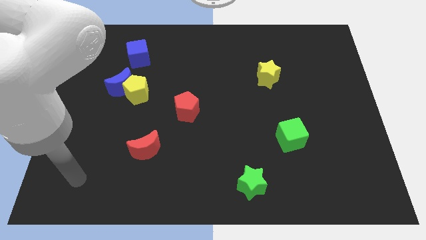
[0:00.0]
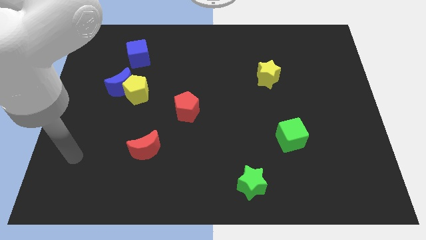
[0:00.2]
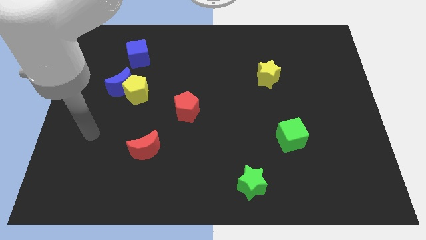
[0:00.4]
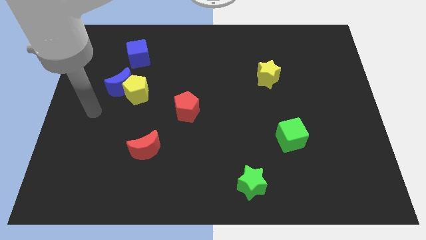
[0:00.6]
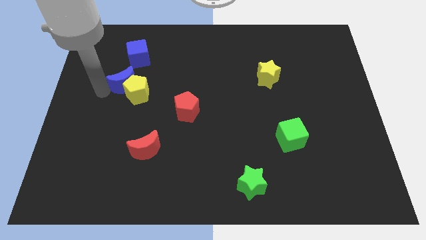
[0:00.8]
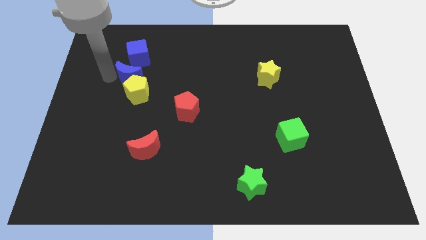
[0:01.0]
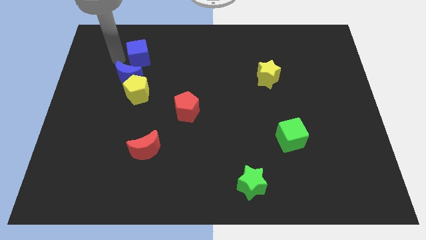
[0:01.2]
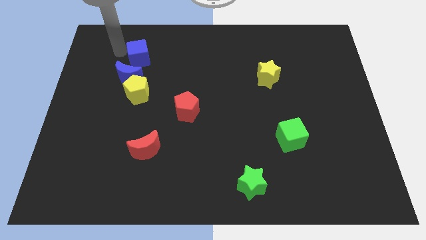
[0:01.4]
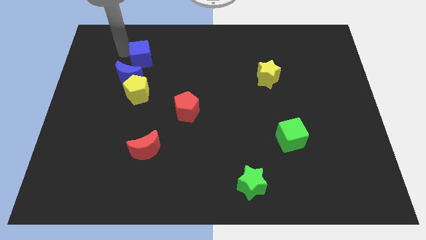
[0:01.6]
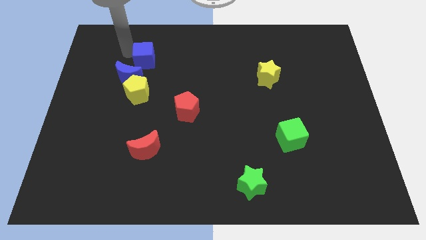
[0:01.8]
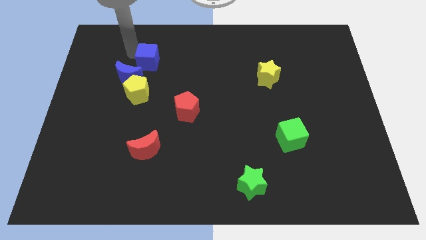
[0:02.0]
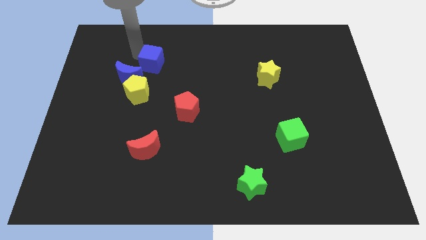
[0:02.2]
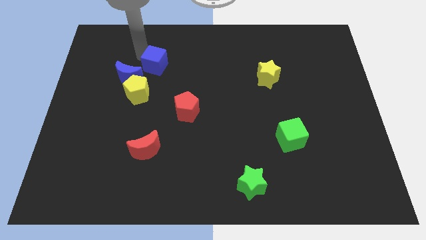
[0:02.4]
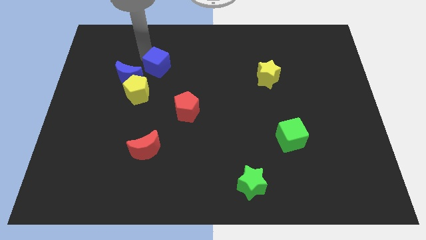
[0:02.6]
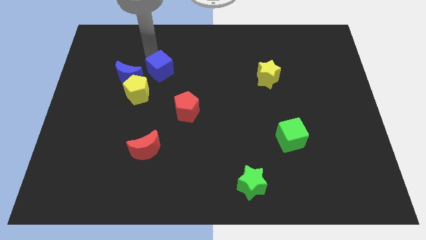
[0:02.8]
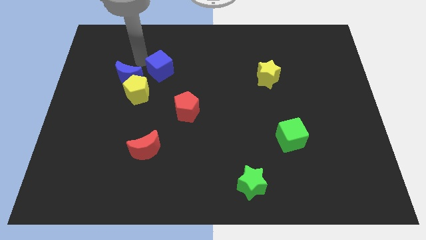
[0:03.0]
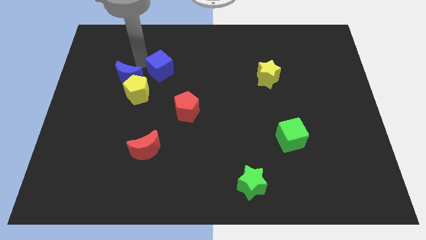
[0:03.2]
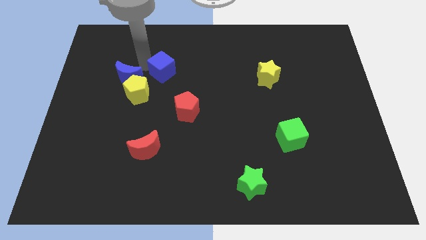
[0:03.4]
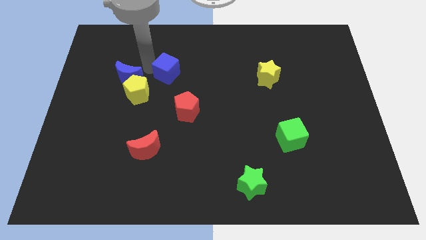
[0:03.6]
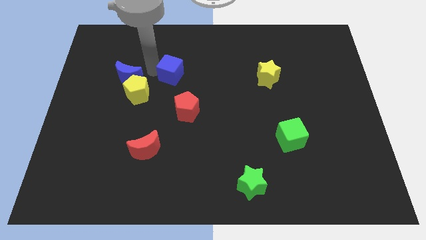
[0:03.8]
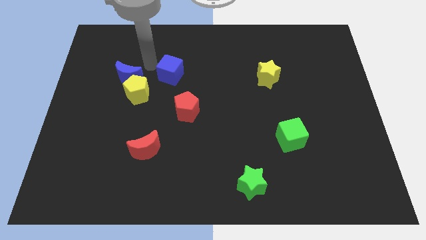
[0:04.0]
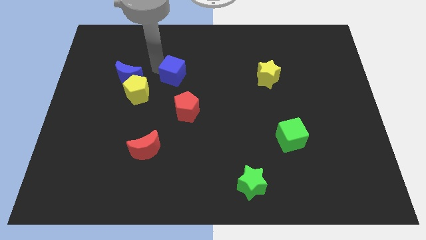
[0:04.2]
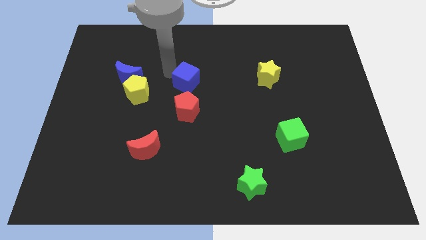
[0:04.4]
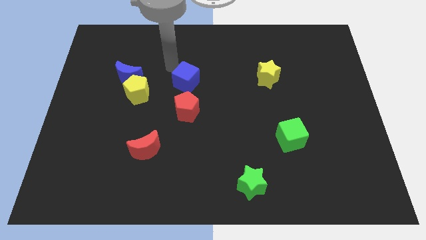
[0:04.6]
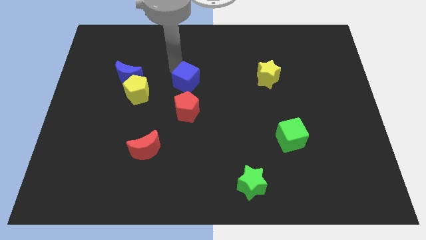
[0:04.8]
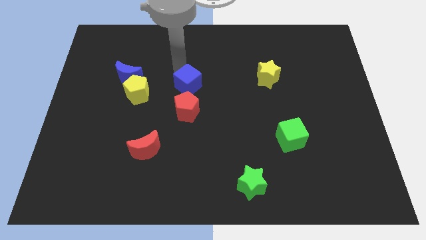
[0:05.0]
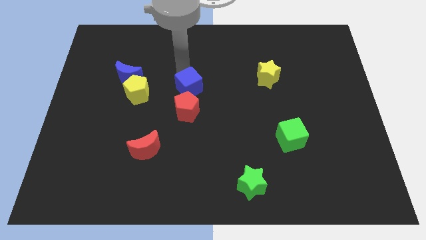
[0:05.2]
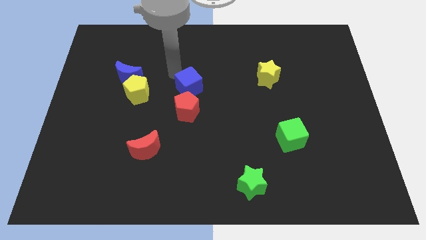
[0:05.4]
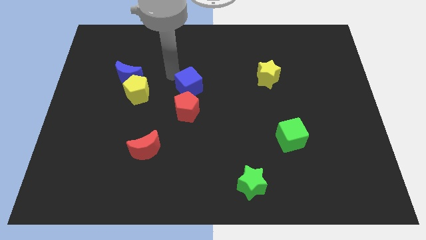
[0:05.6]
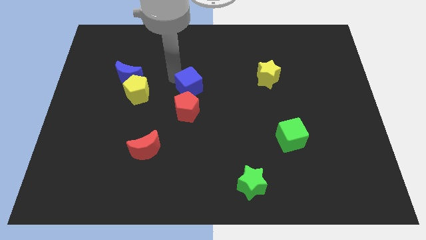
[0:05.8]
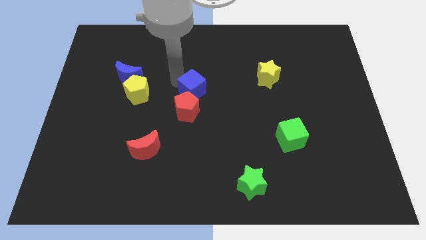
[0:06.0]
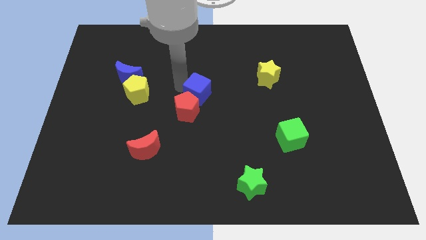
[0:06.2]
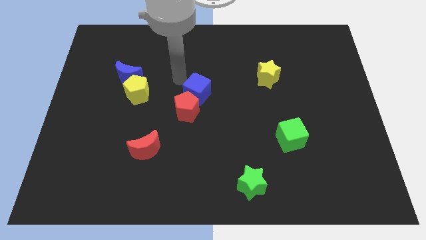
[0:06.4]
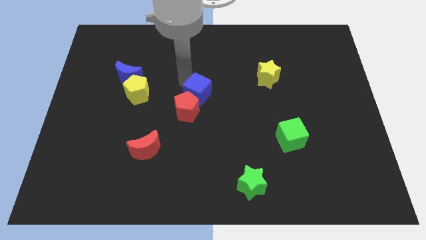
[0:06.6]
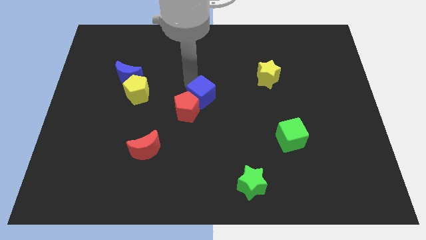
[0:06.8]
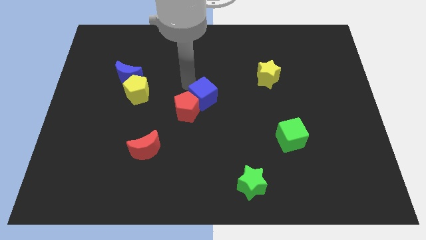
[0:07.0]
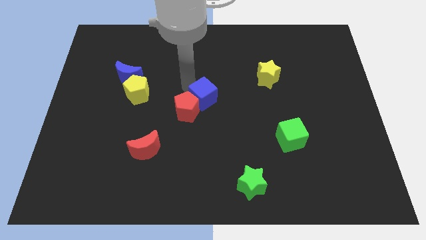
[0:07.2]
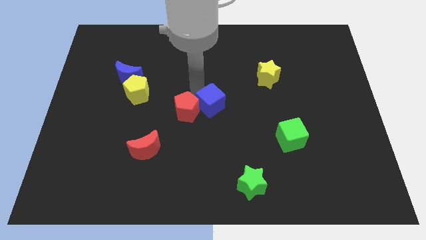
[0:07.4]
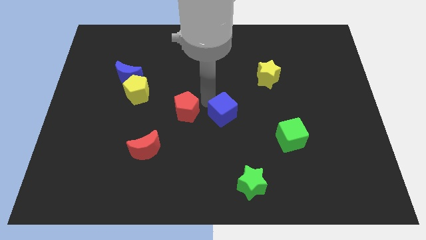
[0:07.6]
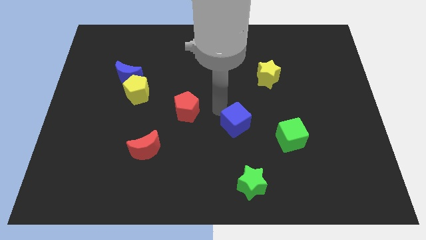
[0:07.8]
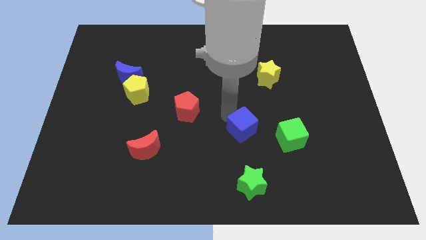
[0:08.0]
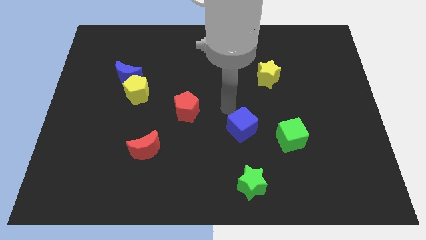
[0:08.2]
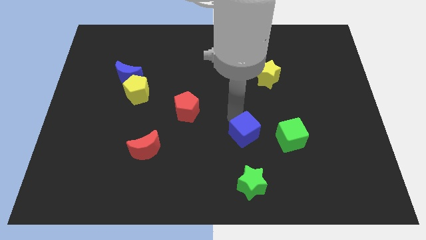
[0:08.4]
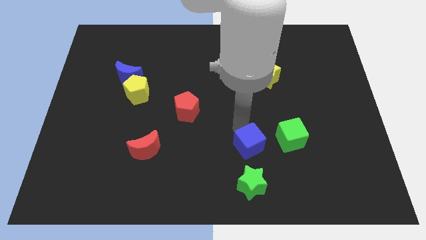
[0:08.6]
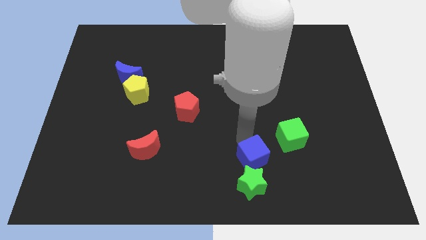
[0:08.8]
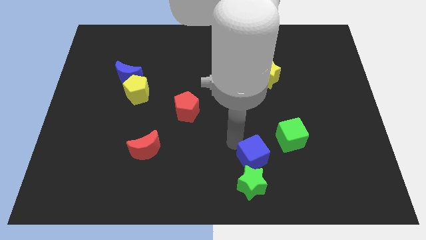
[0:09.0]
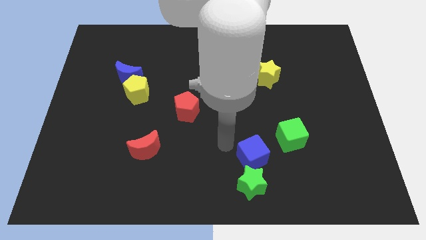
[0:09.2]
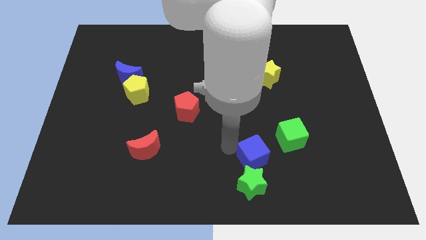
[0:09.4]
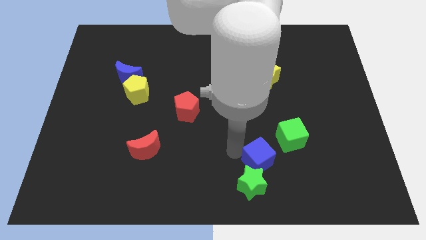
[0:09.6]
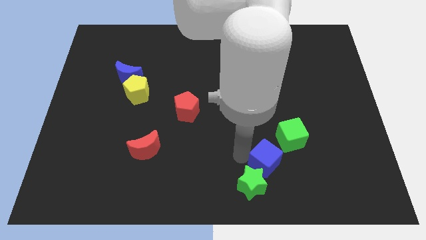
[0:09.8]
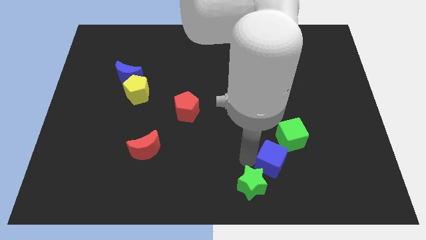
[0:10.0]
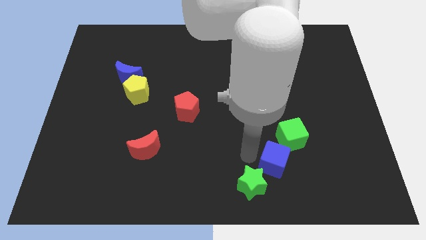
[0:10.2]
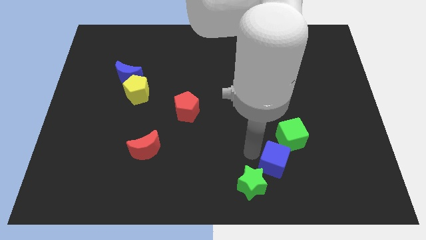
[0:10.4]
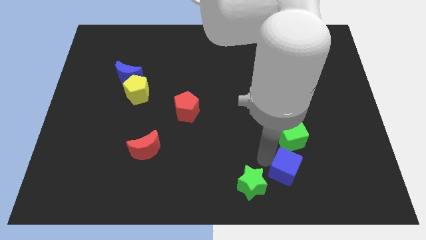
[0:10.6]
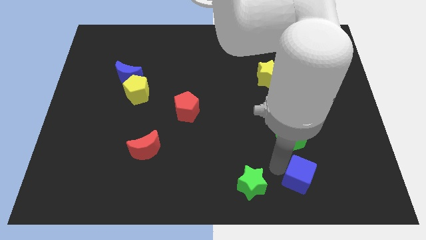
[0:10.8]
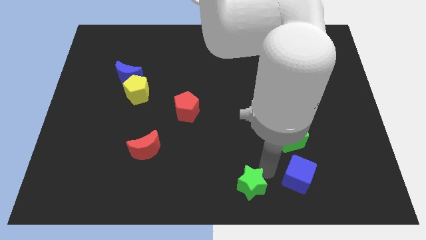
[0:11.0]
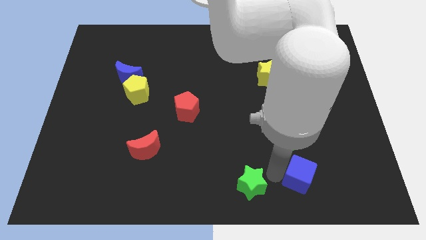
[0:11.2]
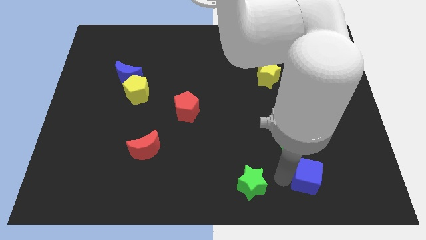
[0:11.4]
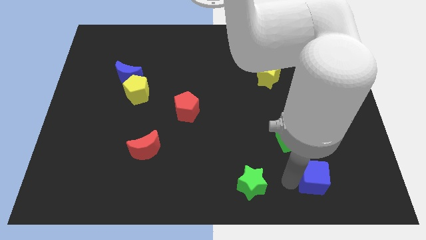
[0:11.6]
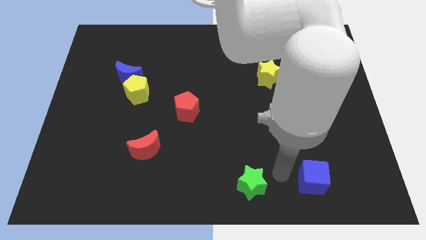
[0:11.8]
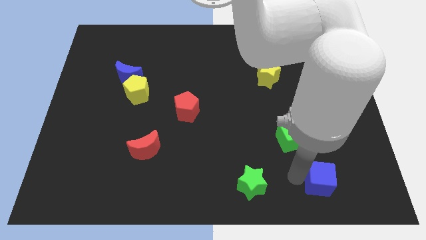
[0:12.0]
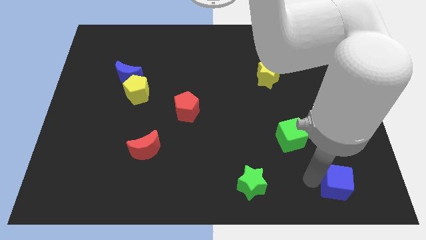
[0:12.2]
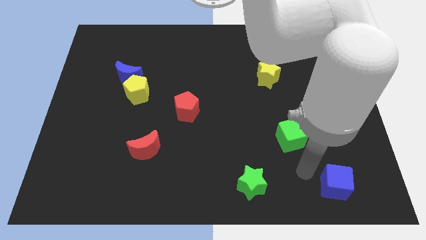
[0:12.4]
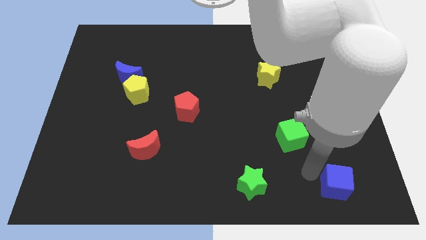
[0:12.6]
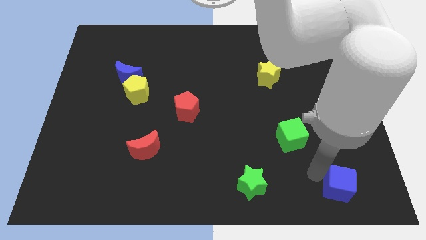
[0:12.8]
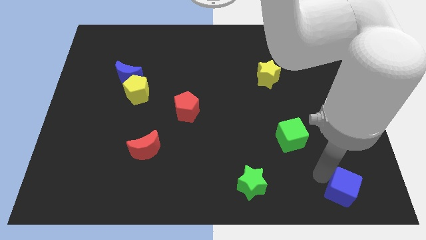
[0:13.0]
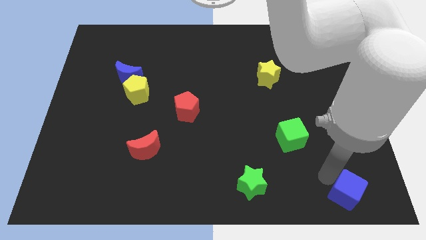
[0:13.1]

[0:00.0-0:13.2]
put the blue cube to the lower right corner

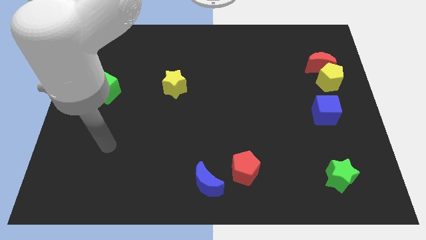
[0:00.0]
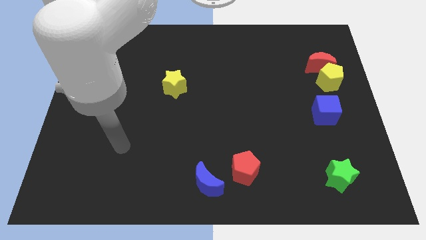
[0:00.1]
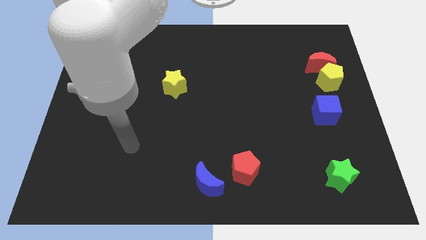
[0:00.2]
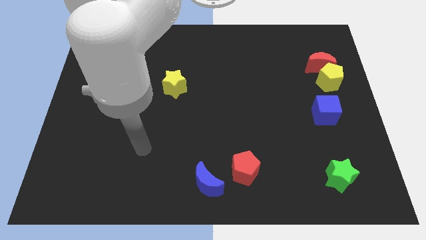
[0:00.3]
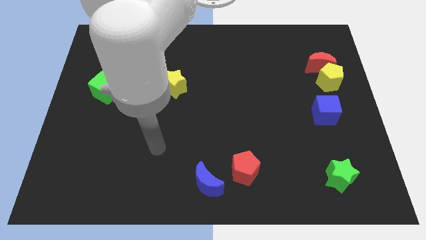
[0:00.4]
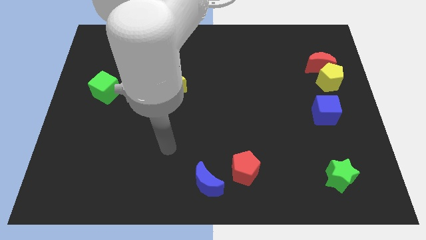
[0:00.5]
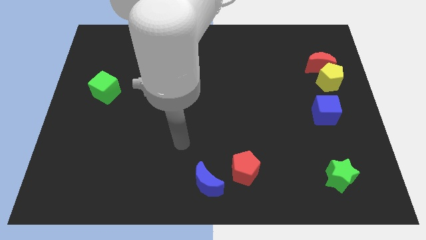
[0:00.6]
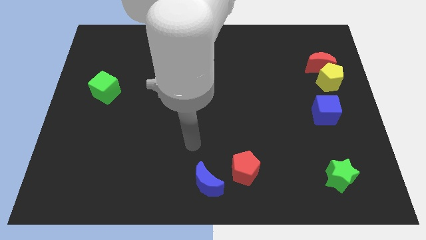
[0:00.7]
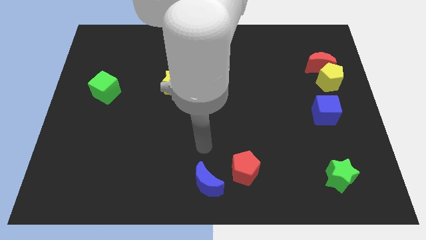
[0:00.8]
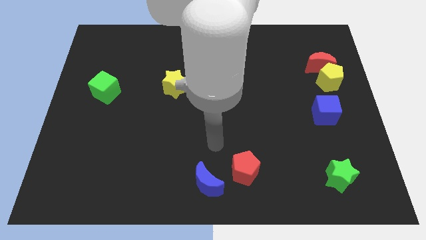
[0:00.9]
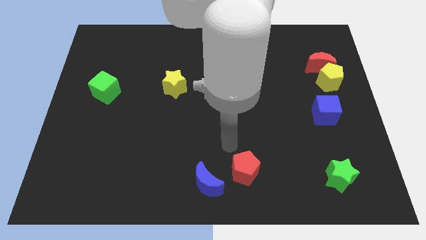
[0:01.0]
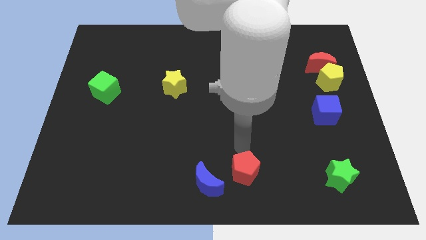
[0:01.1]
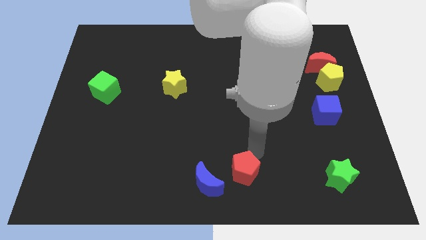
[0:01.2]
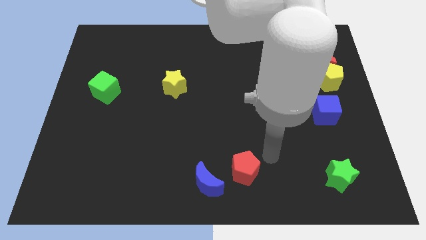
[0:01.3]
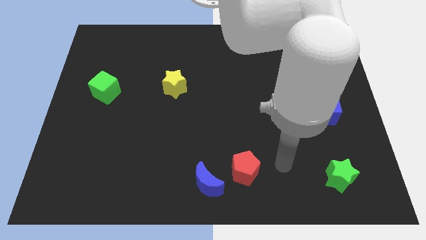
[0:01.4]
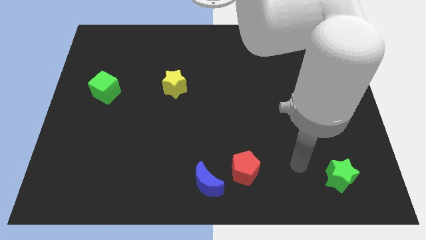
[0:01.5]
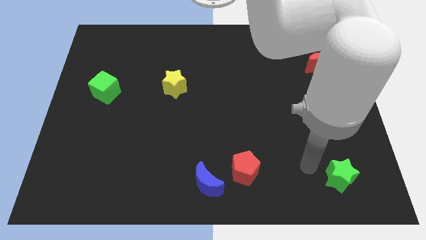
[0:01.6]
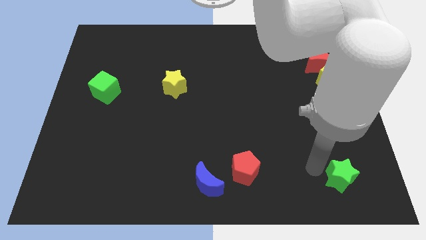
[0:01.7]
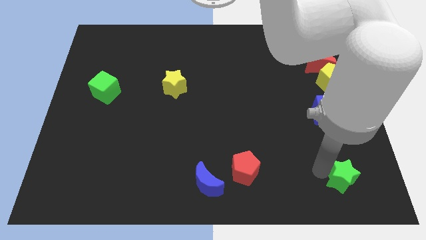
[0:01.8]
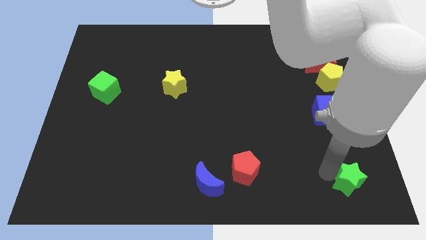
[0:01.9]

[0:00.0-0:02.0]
move the green star to the bottom right corner
